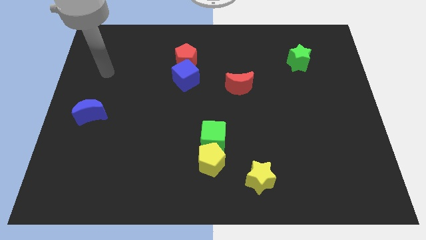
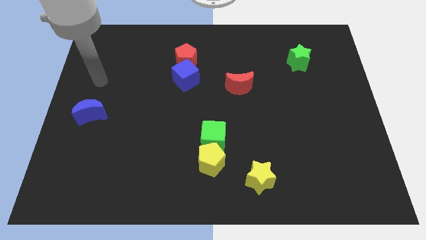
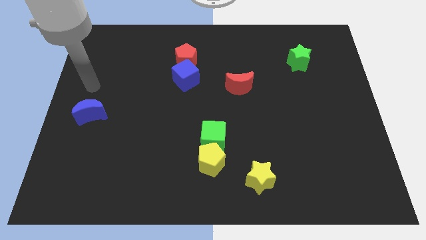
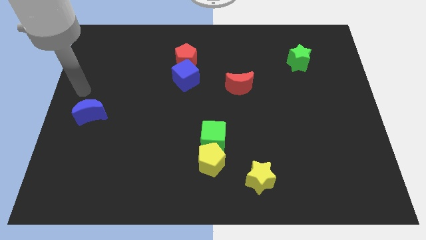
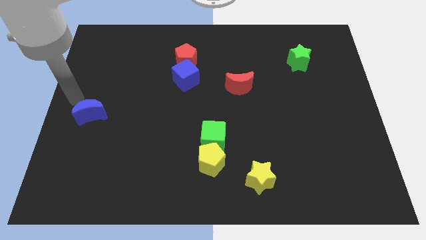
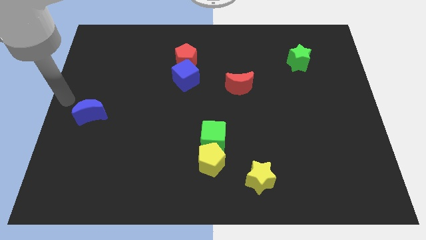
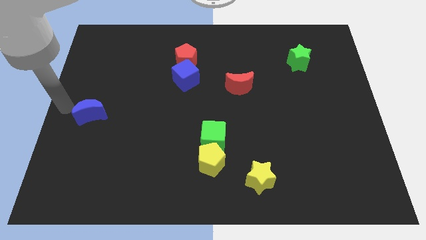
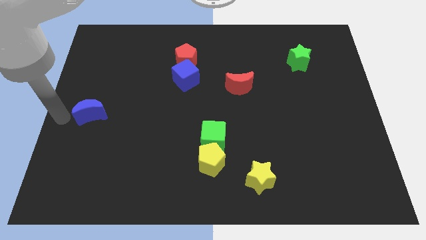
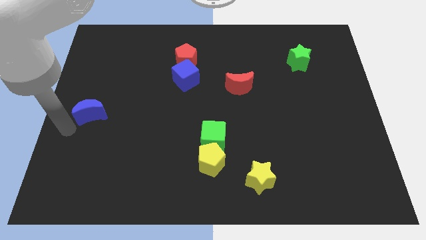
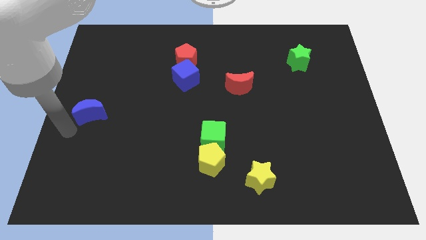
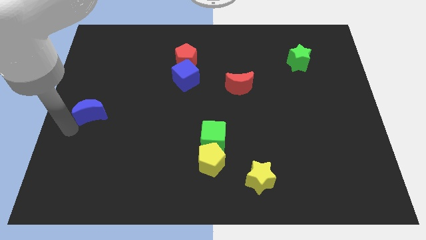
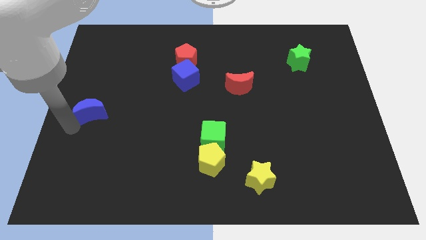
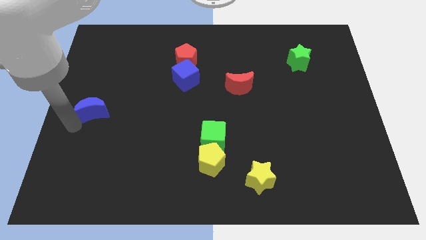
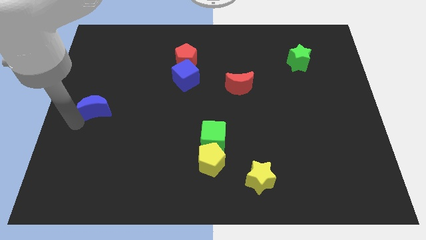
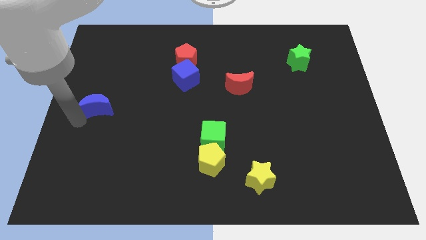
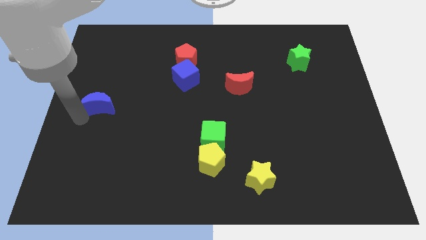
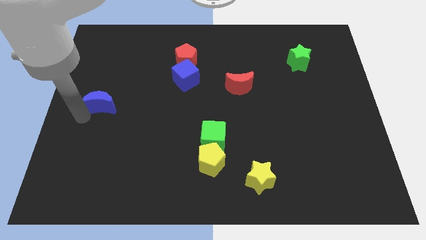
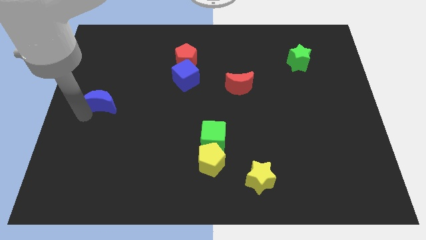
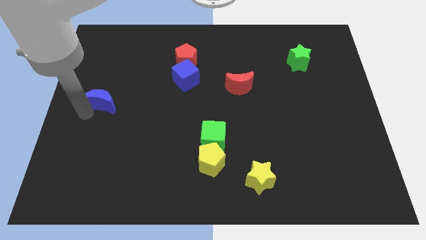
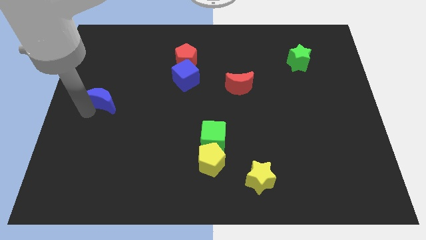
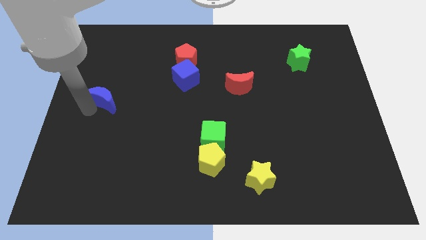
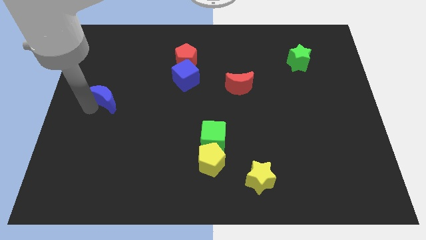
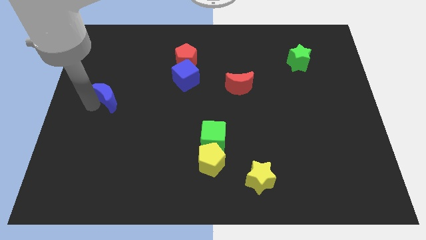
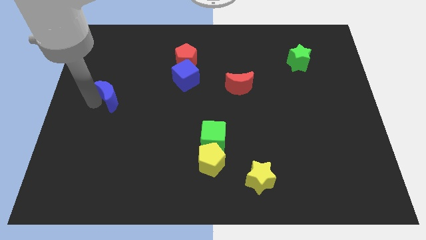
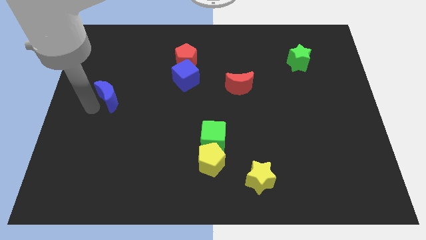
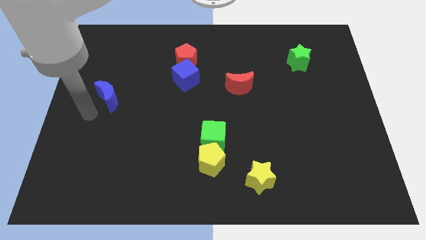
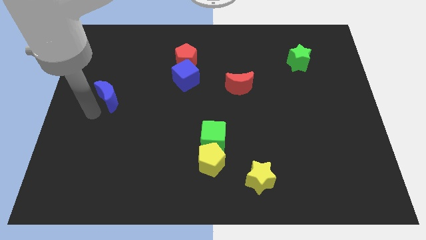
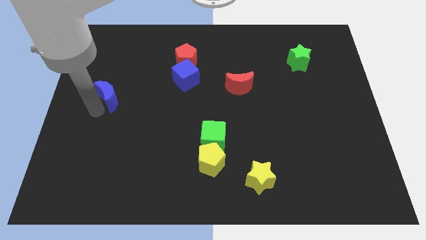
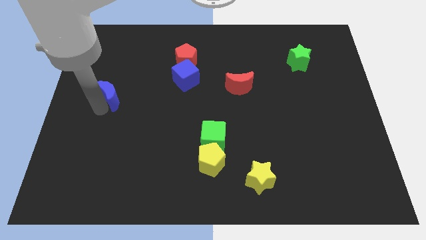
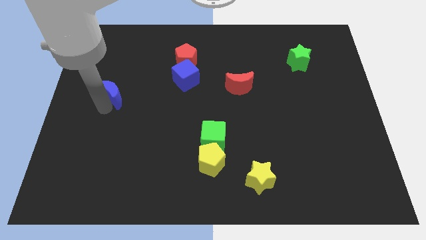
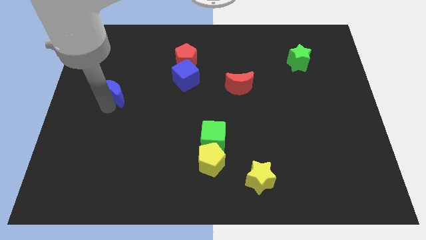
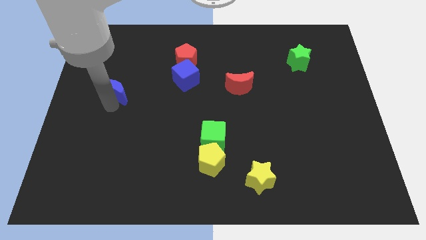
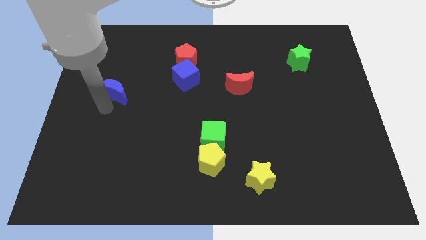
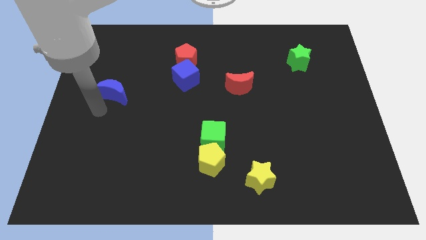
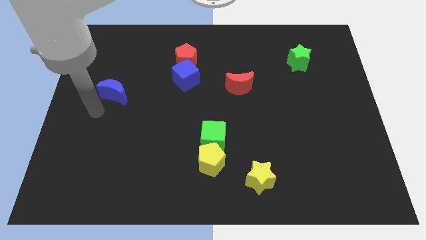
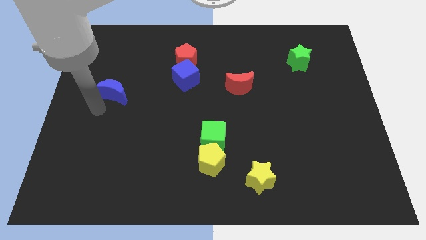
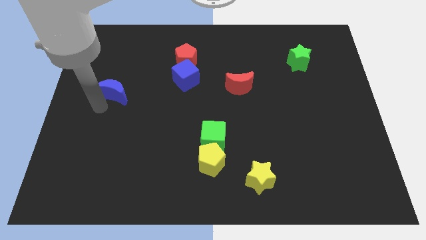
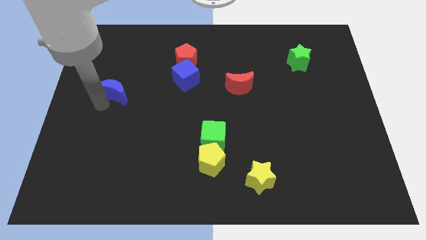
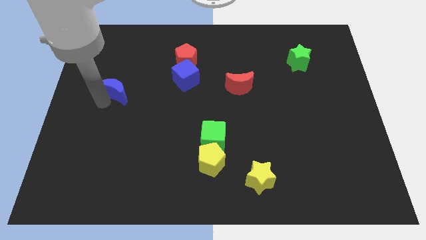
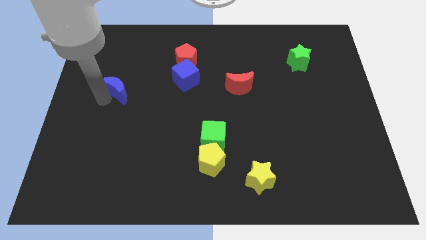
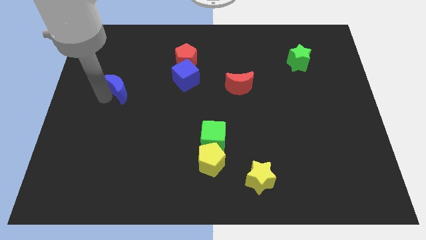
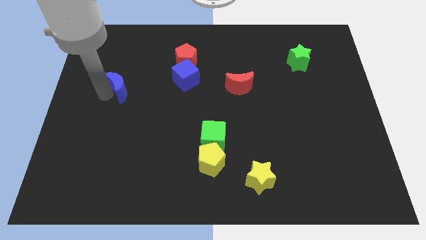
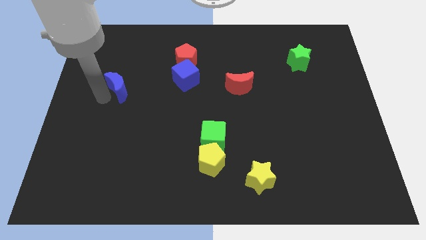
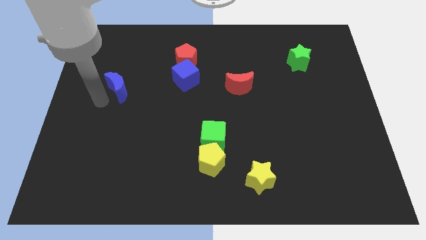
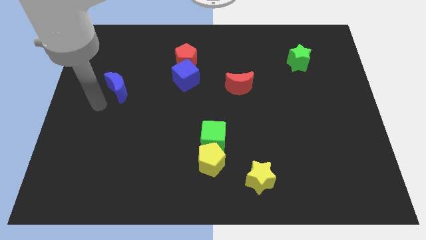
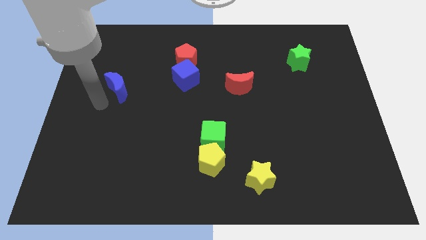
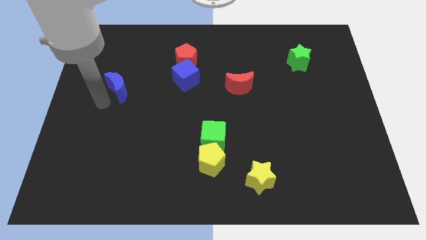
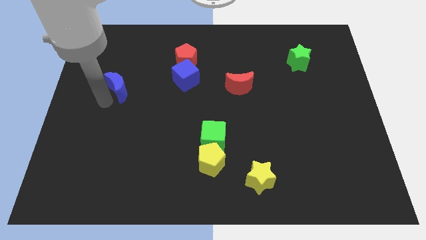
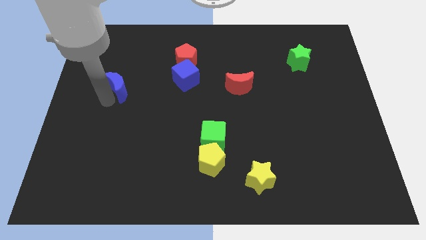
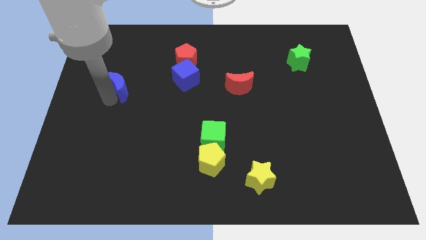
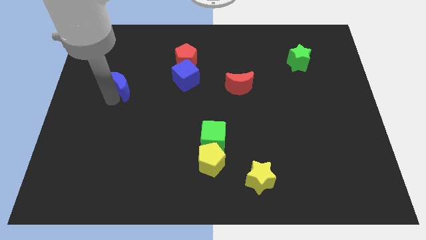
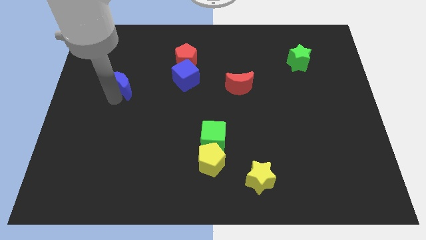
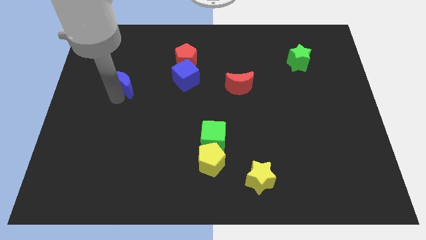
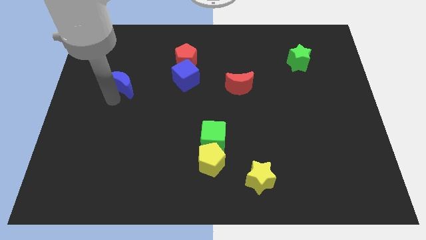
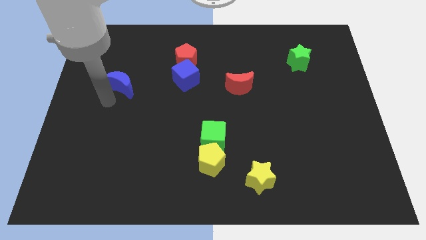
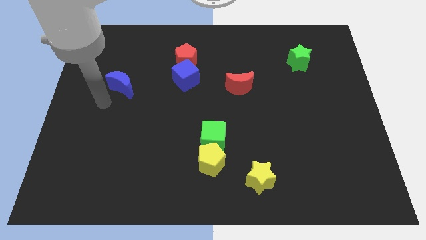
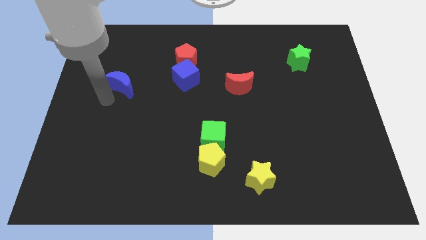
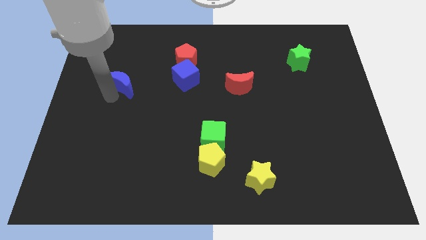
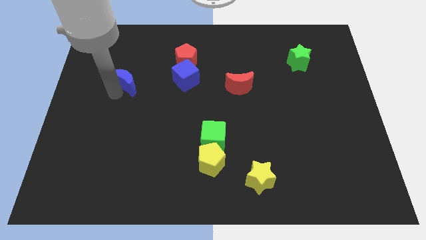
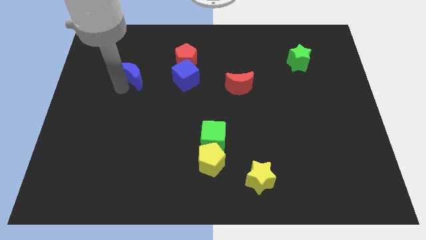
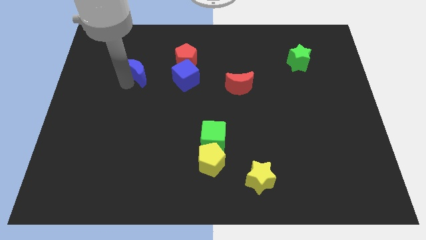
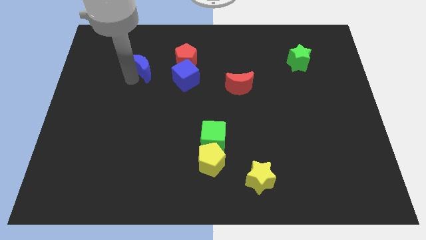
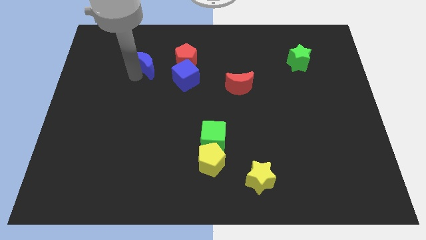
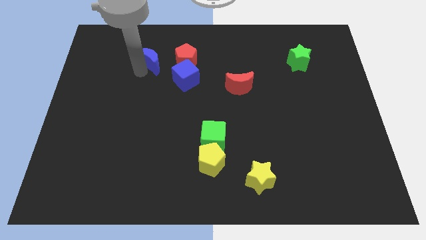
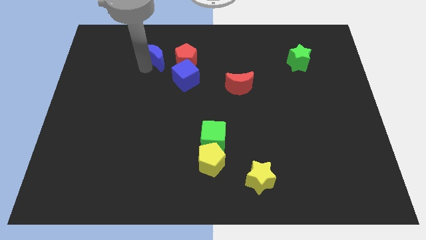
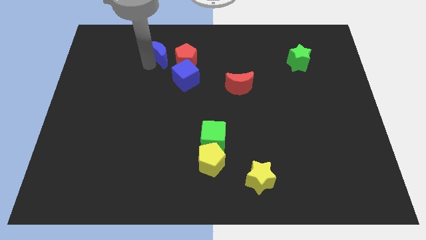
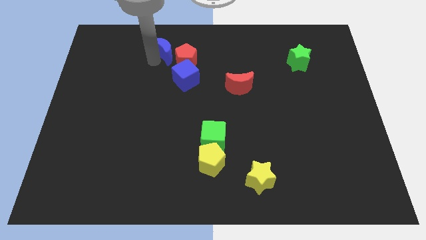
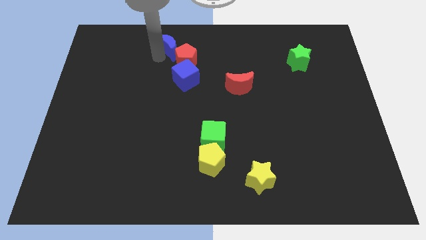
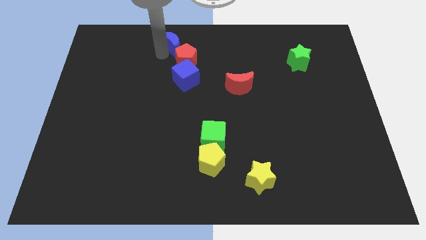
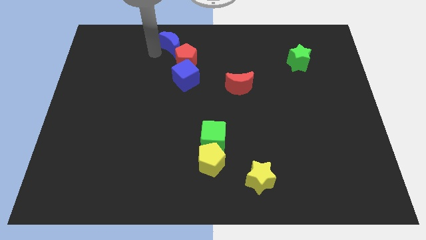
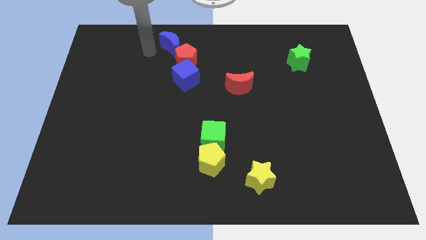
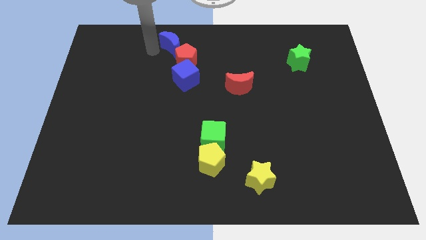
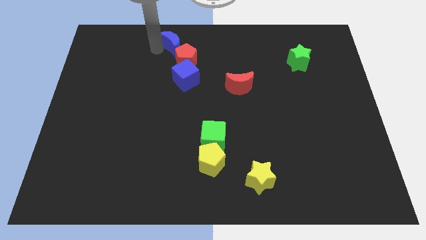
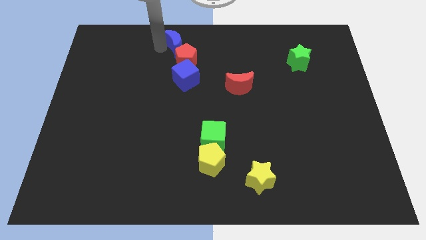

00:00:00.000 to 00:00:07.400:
push the blue moon to the top
